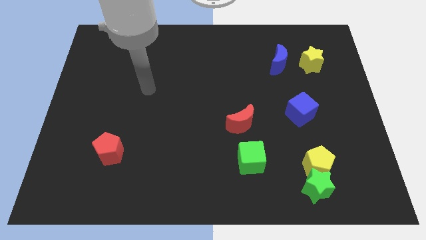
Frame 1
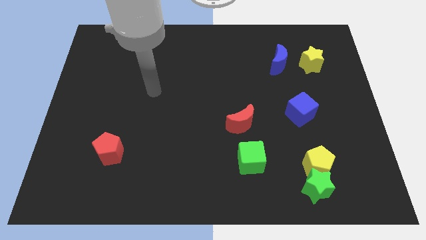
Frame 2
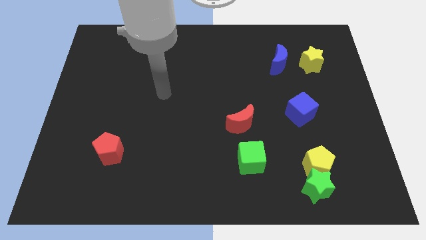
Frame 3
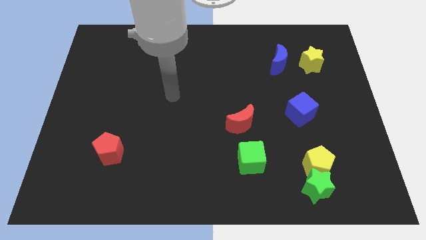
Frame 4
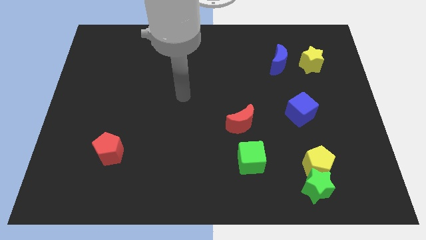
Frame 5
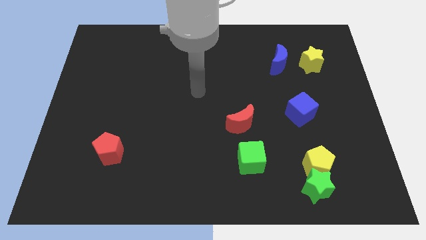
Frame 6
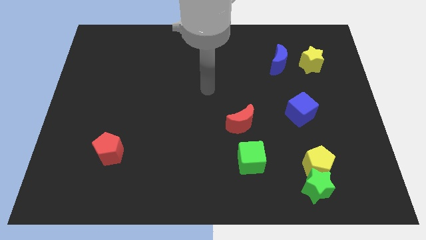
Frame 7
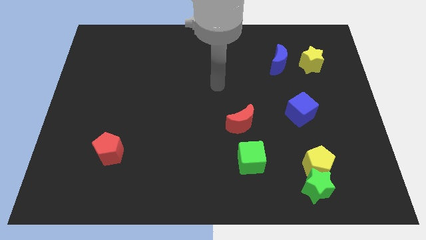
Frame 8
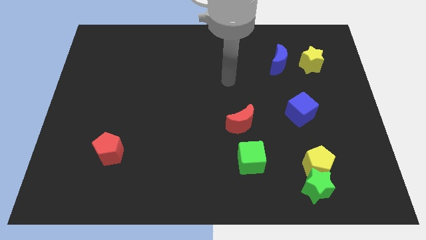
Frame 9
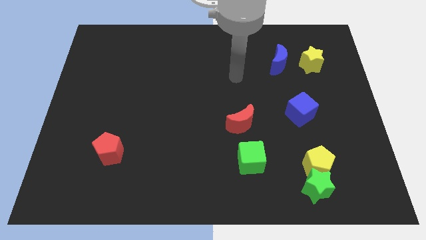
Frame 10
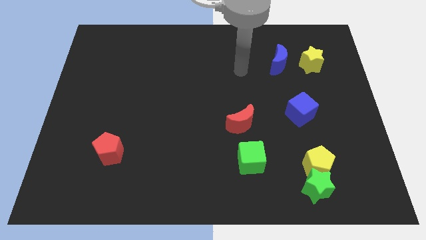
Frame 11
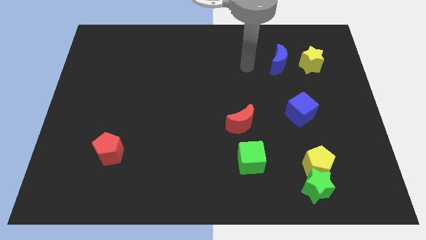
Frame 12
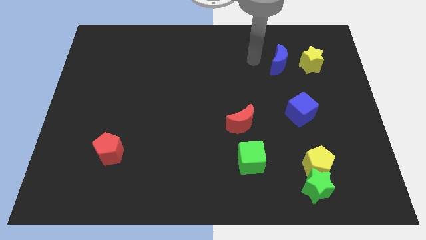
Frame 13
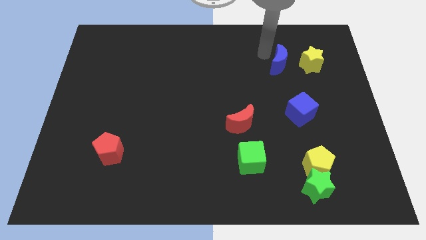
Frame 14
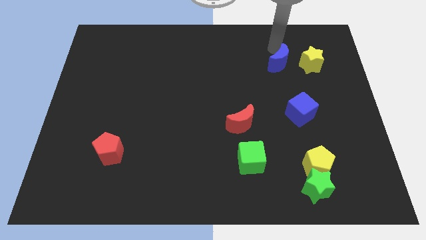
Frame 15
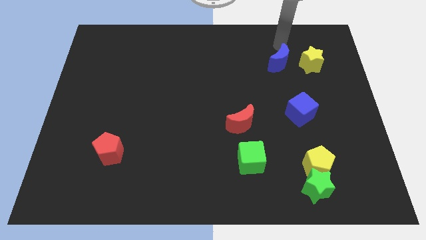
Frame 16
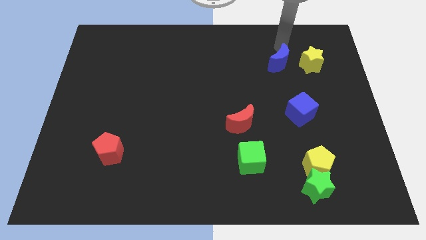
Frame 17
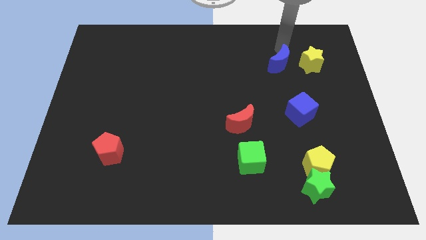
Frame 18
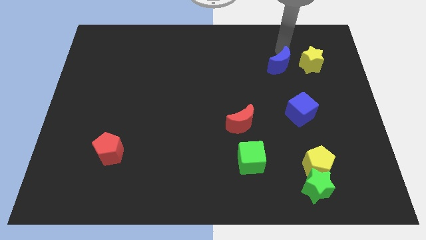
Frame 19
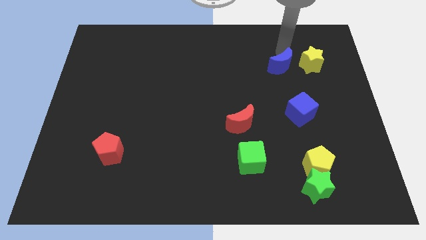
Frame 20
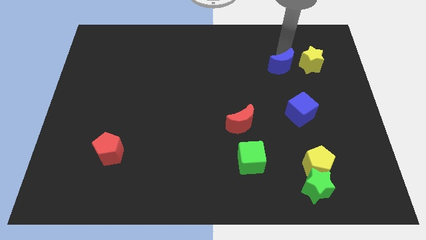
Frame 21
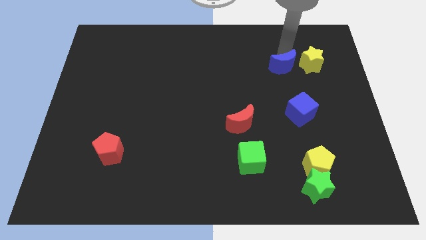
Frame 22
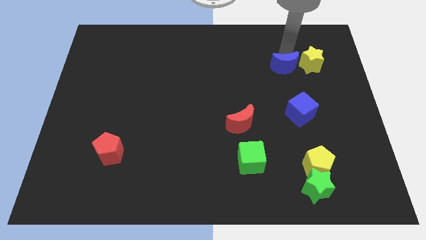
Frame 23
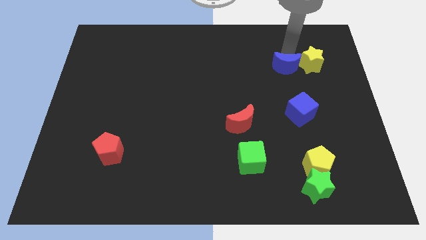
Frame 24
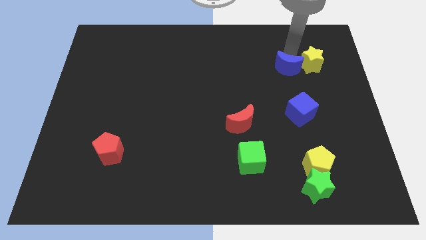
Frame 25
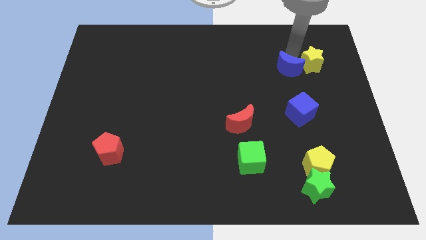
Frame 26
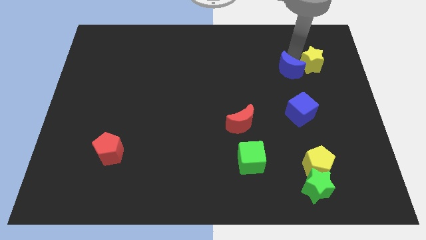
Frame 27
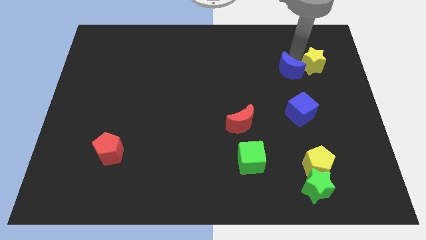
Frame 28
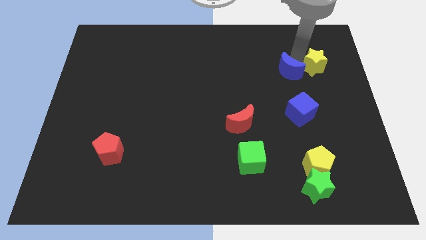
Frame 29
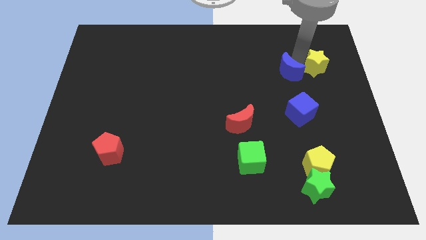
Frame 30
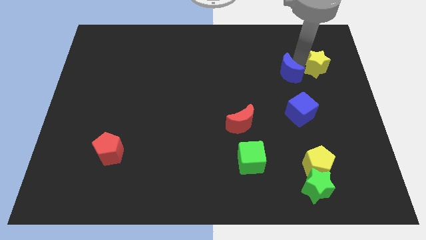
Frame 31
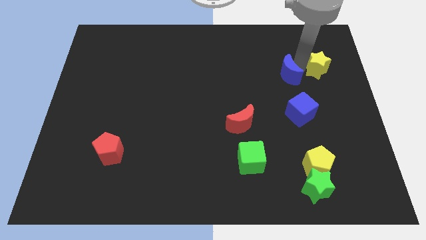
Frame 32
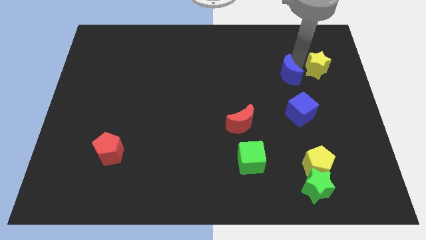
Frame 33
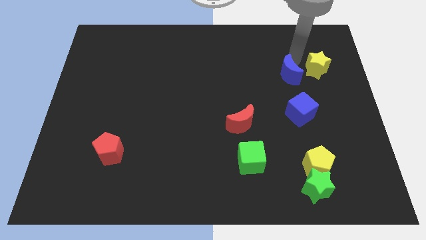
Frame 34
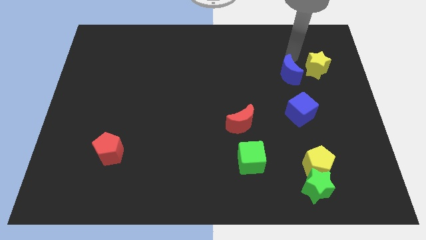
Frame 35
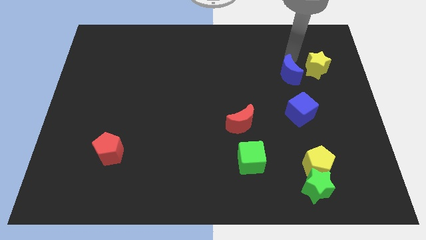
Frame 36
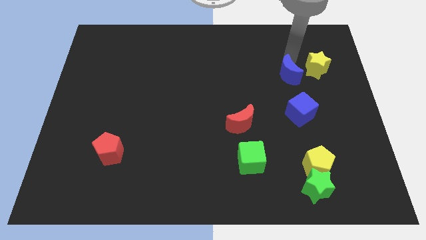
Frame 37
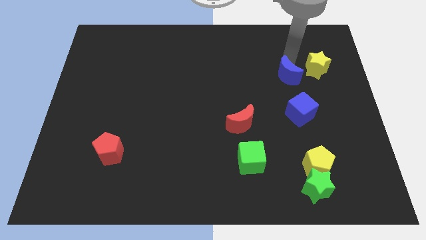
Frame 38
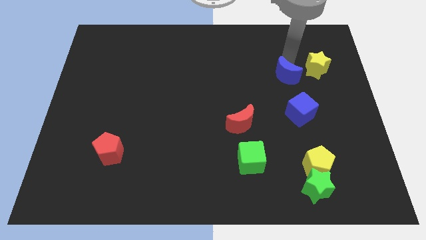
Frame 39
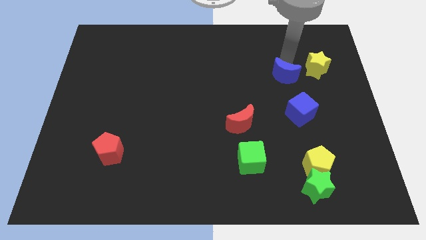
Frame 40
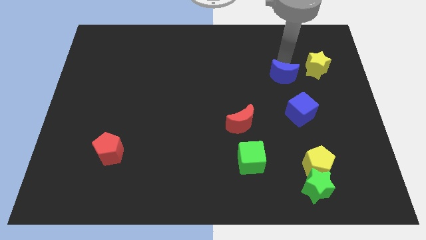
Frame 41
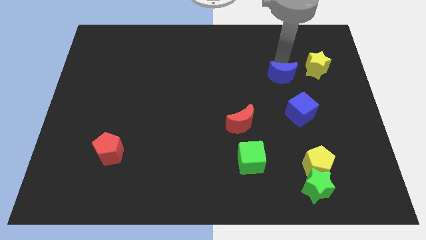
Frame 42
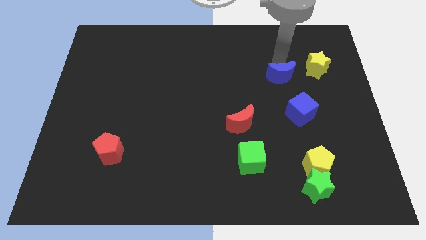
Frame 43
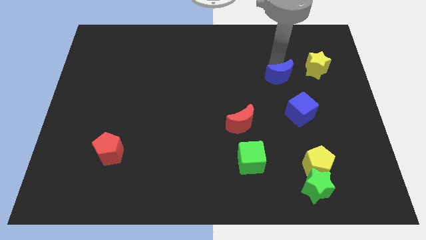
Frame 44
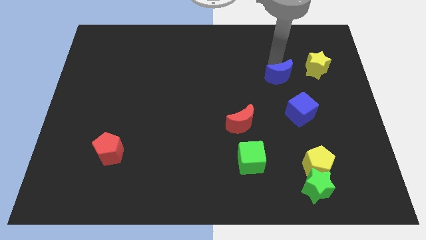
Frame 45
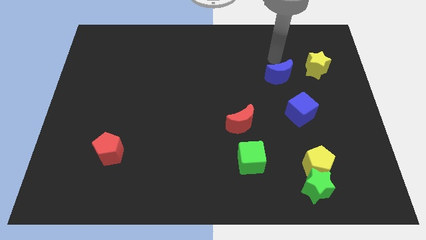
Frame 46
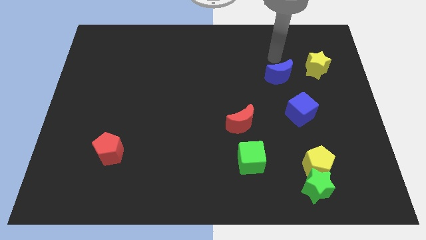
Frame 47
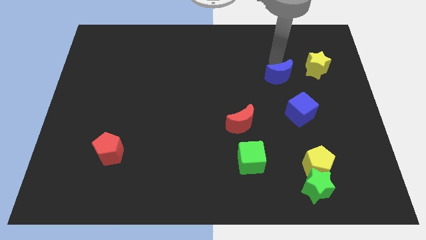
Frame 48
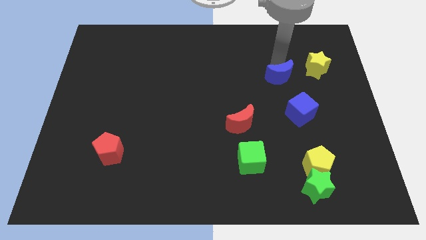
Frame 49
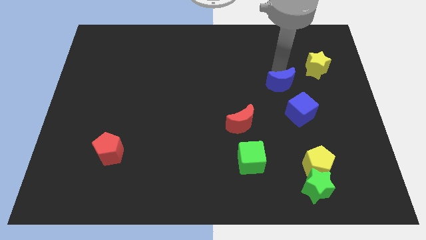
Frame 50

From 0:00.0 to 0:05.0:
slide the blue moon a little down

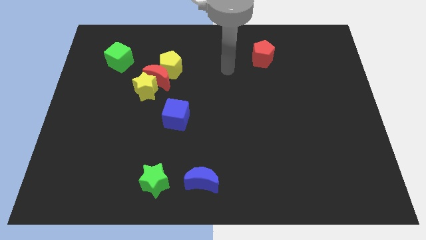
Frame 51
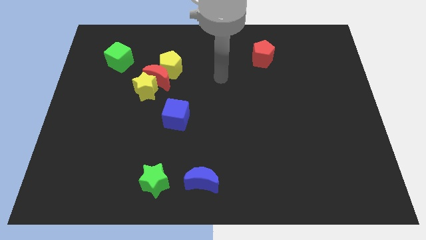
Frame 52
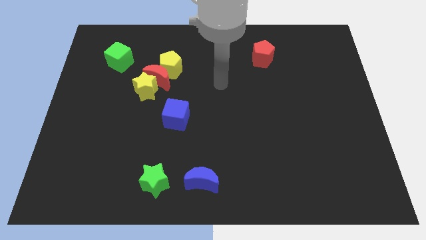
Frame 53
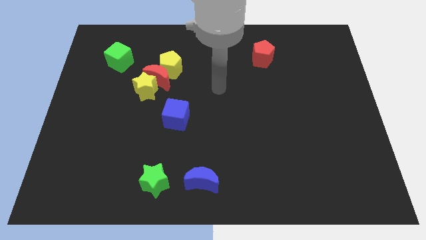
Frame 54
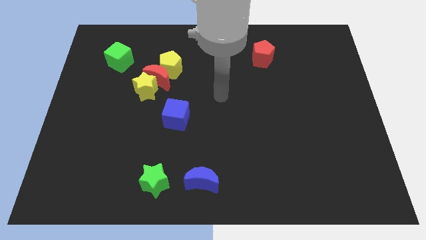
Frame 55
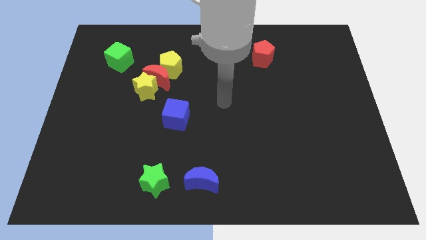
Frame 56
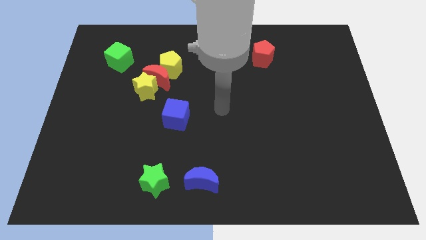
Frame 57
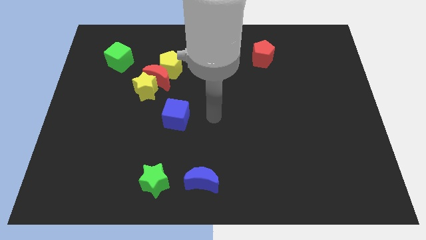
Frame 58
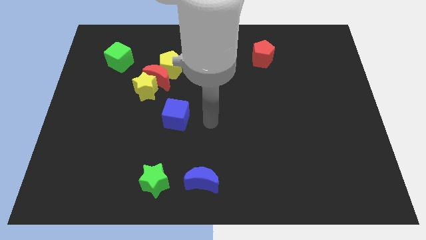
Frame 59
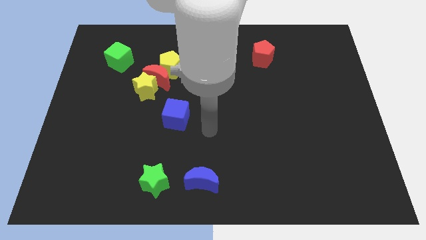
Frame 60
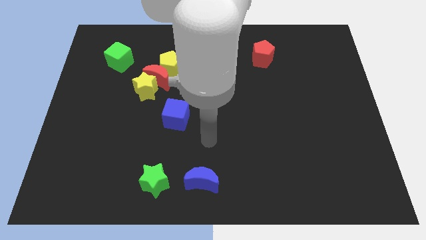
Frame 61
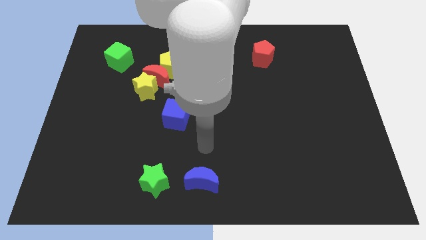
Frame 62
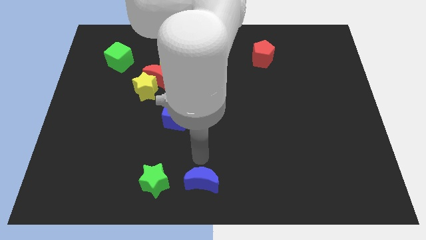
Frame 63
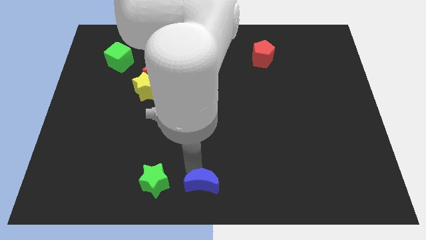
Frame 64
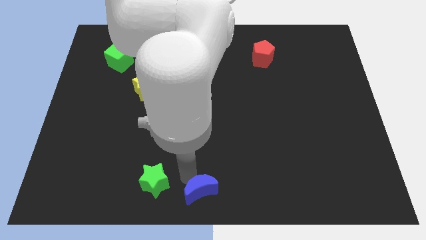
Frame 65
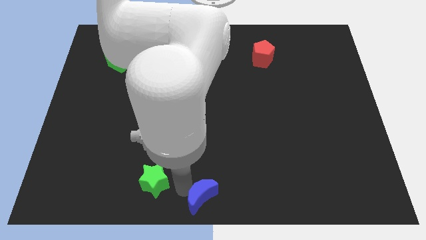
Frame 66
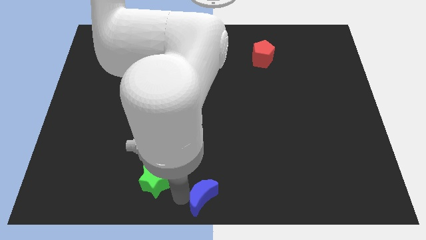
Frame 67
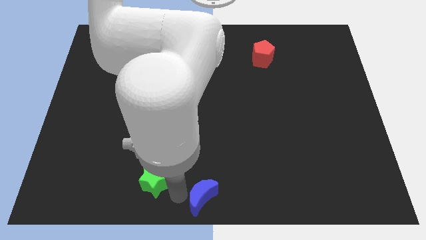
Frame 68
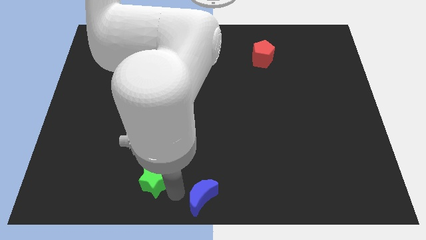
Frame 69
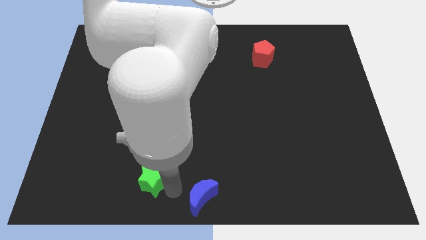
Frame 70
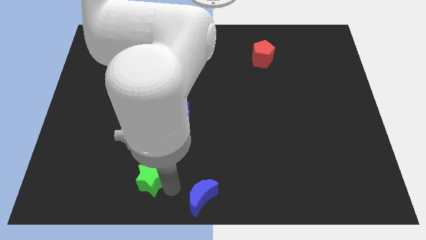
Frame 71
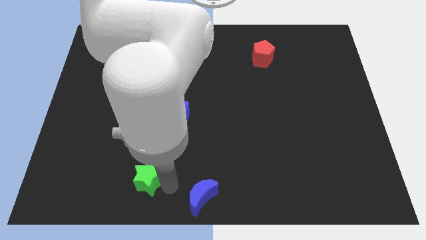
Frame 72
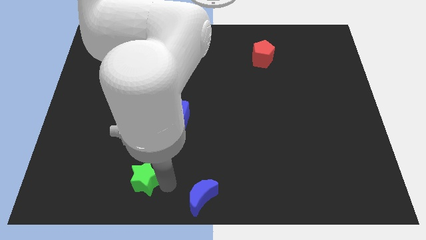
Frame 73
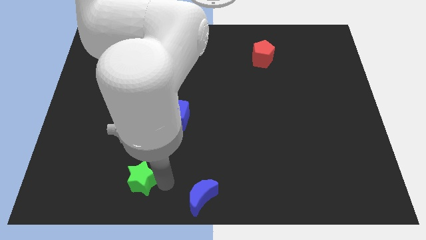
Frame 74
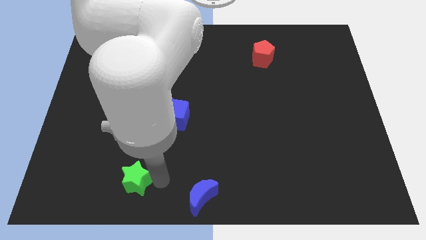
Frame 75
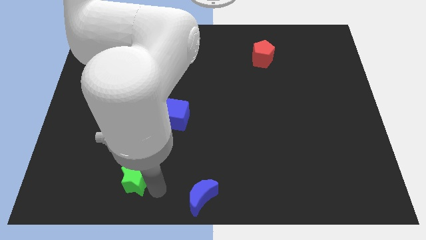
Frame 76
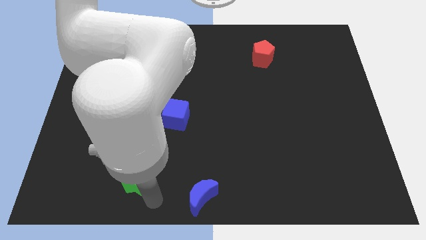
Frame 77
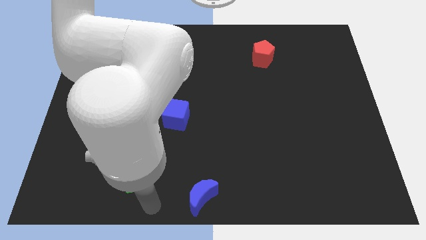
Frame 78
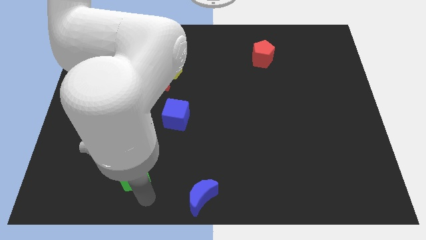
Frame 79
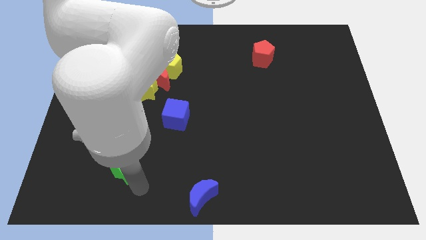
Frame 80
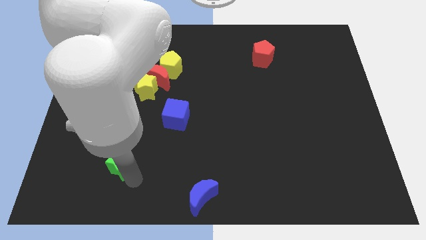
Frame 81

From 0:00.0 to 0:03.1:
slightly push the green star diagonally upwards and to the left

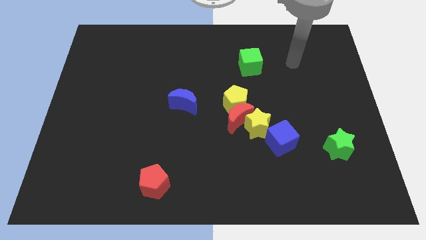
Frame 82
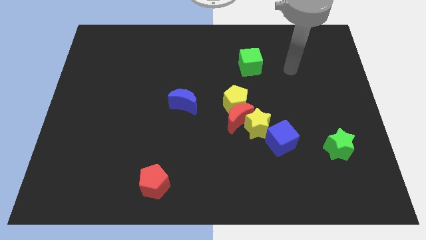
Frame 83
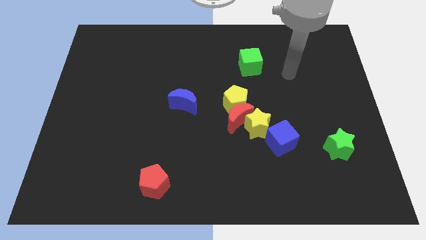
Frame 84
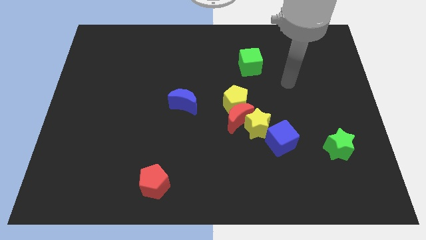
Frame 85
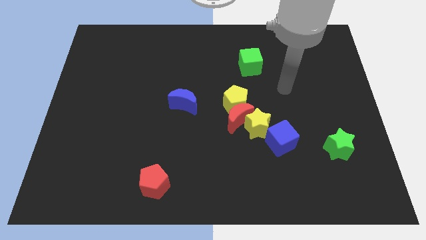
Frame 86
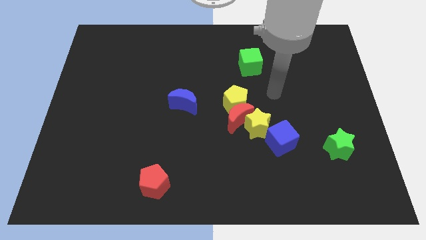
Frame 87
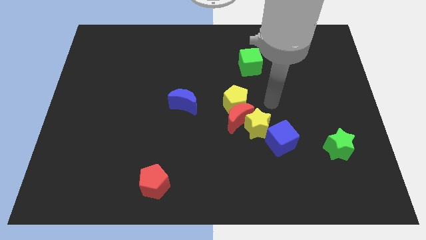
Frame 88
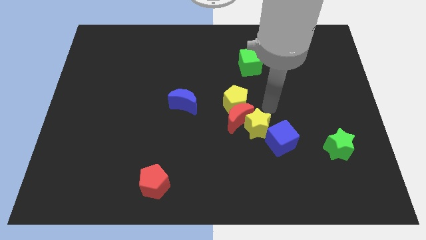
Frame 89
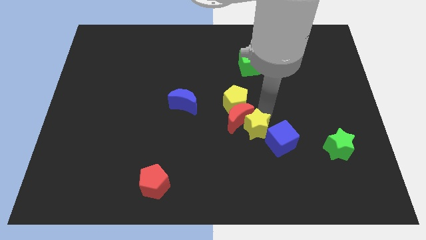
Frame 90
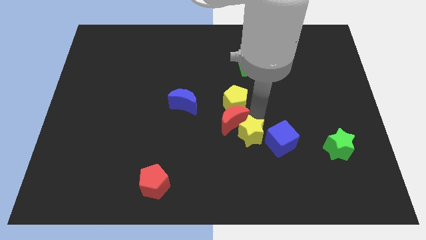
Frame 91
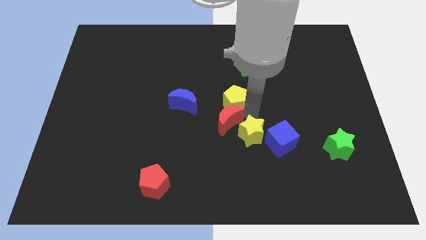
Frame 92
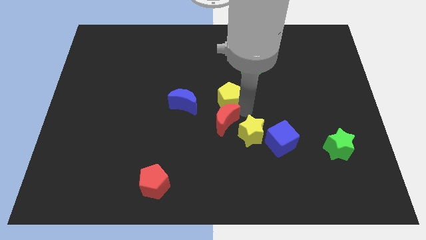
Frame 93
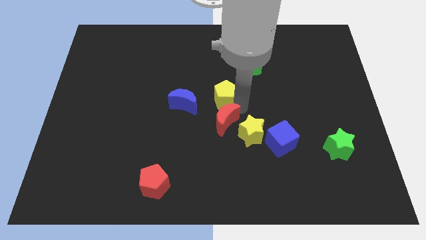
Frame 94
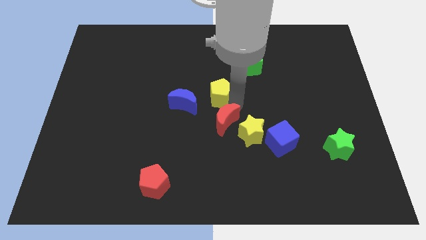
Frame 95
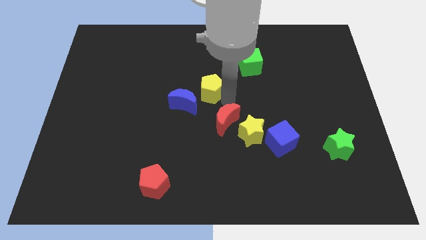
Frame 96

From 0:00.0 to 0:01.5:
push the yellow pentagon diagonally up and to the left somewhat
